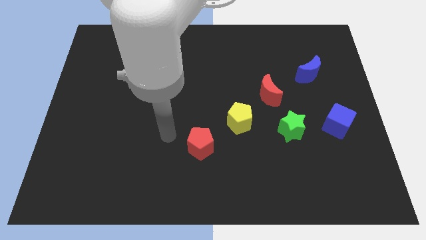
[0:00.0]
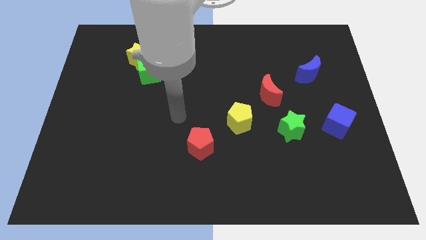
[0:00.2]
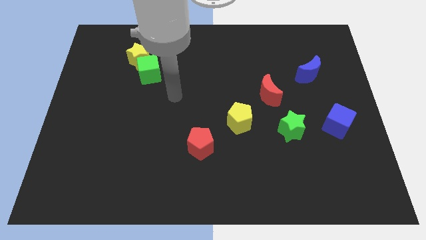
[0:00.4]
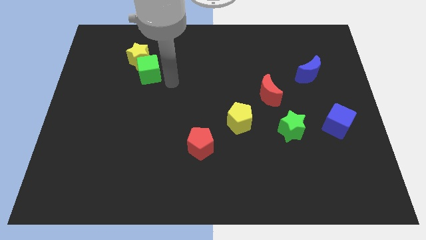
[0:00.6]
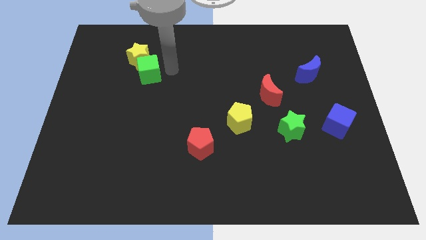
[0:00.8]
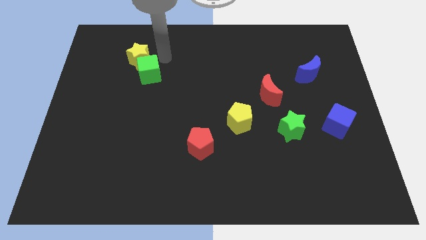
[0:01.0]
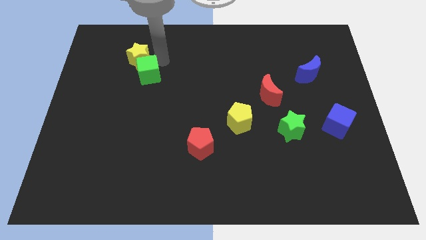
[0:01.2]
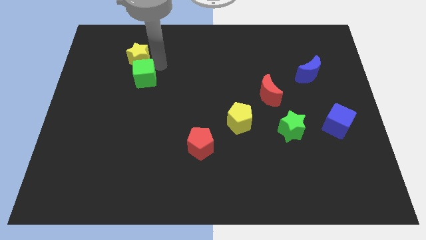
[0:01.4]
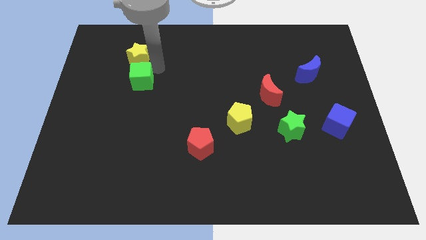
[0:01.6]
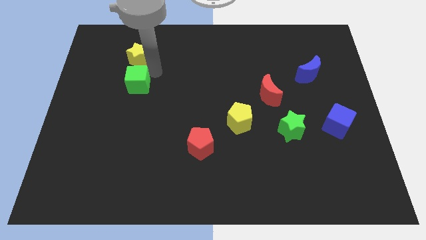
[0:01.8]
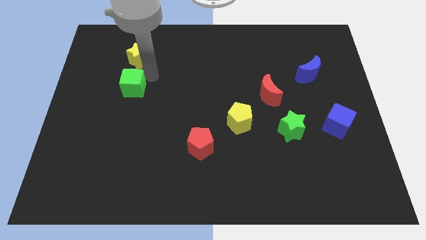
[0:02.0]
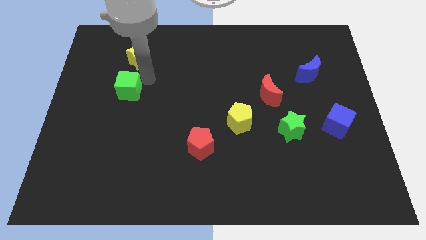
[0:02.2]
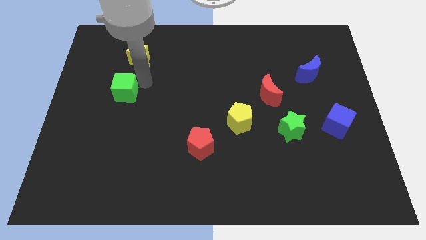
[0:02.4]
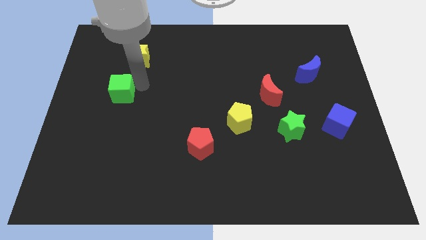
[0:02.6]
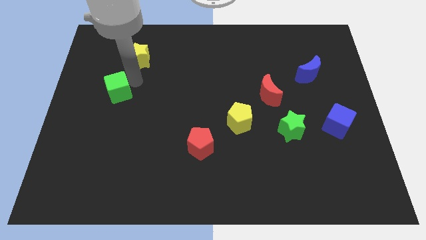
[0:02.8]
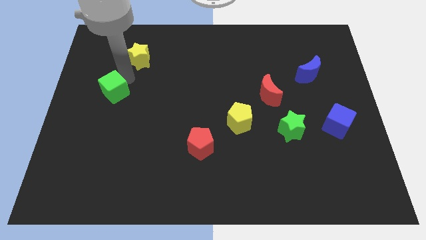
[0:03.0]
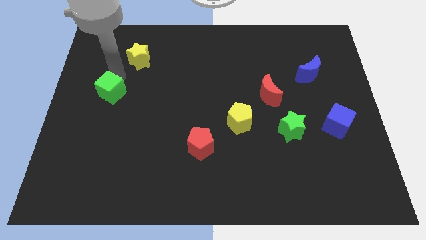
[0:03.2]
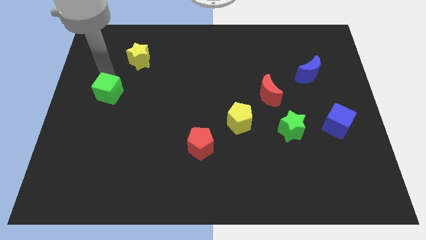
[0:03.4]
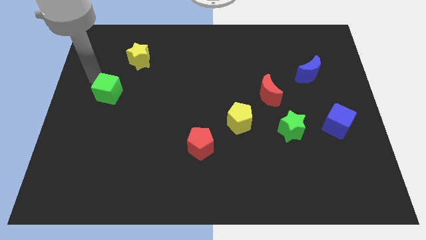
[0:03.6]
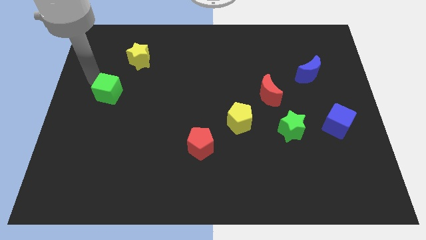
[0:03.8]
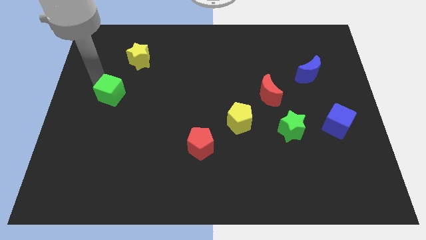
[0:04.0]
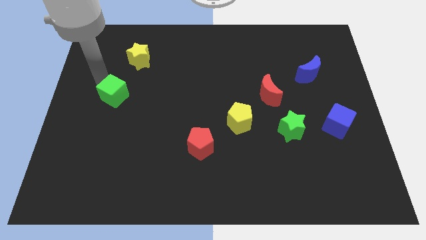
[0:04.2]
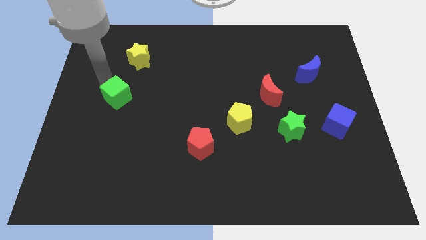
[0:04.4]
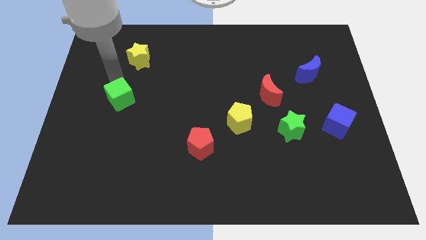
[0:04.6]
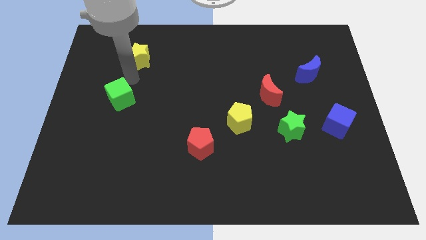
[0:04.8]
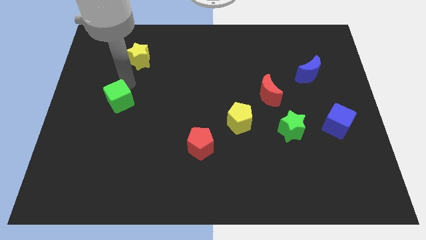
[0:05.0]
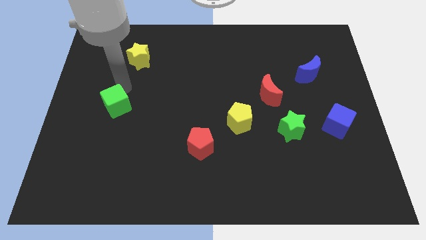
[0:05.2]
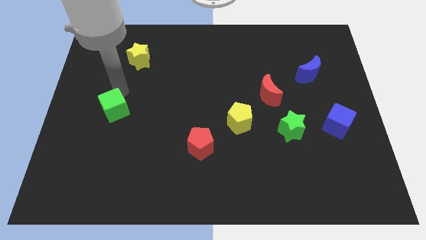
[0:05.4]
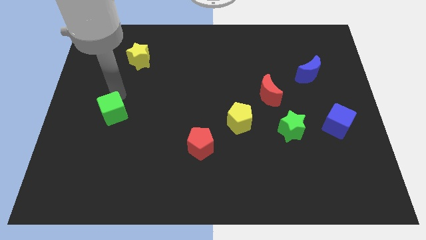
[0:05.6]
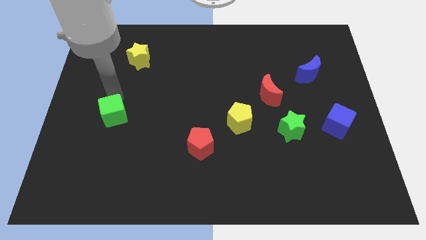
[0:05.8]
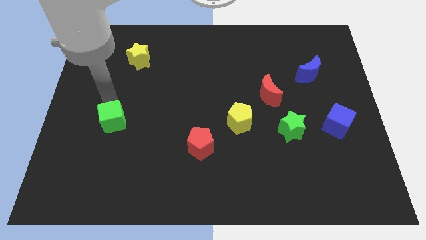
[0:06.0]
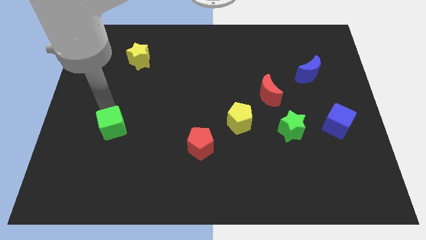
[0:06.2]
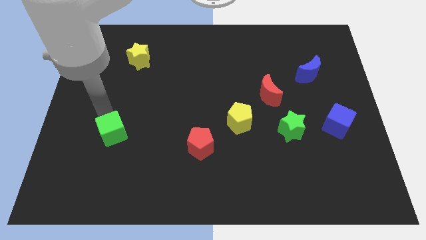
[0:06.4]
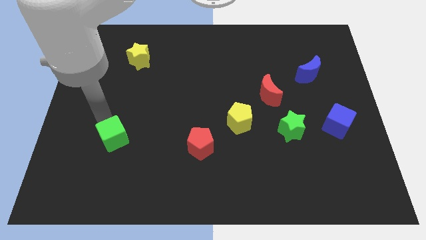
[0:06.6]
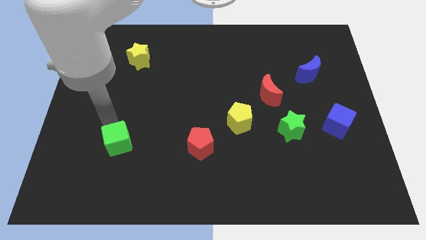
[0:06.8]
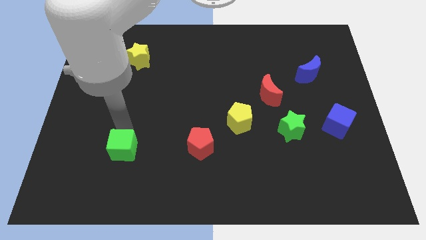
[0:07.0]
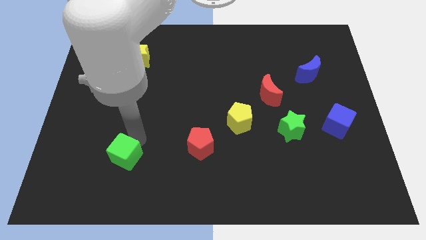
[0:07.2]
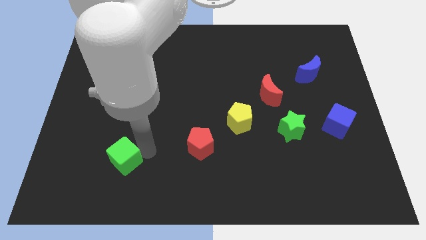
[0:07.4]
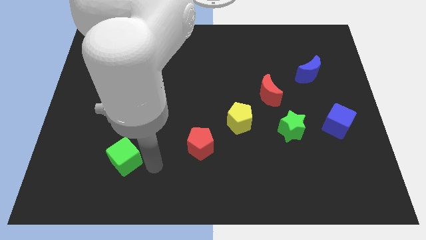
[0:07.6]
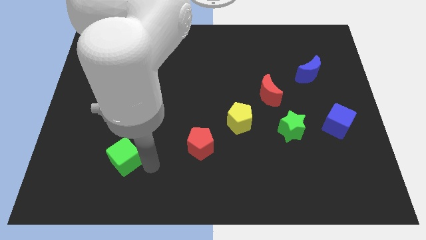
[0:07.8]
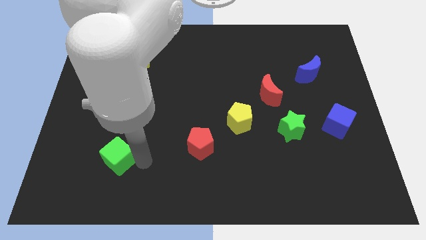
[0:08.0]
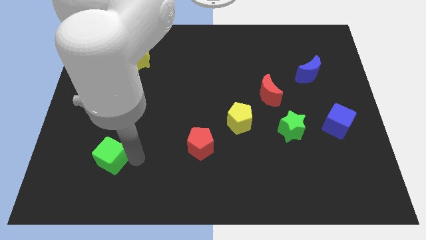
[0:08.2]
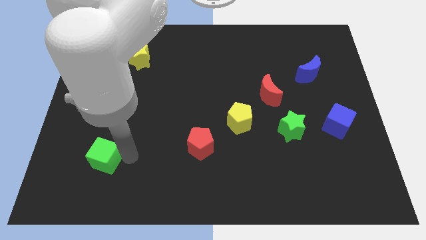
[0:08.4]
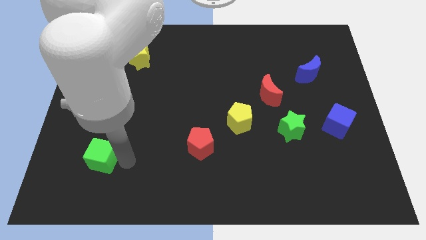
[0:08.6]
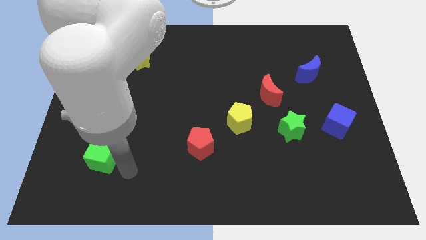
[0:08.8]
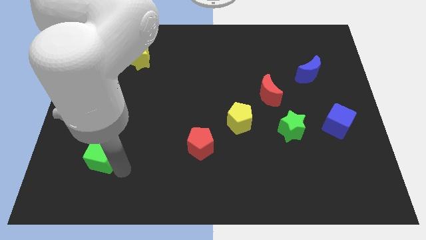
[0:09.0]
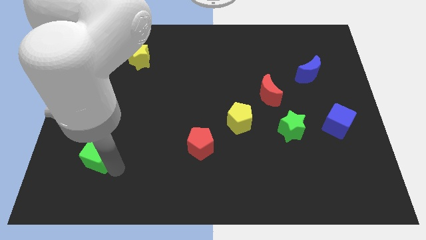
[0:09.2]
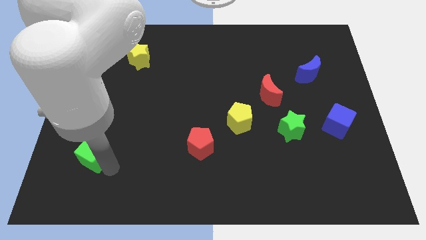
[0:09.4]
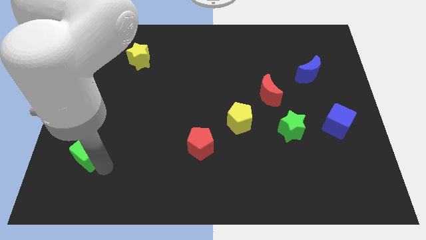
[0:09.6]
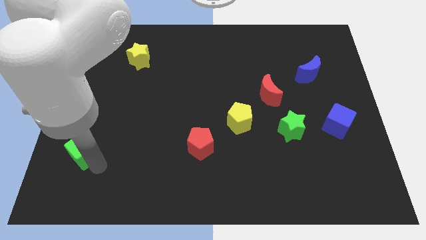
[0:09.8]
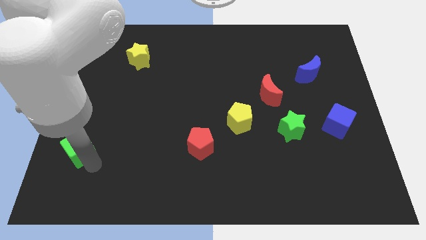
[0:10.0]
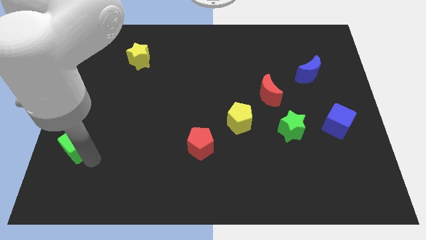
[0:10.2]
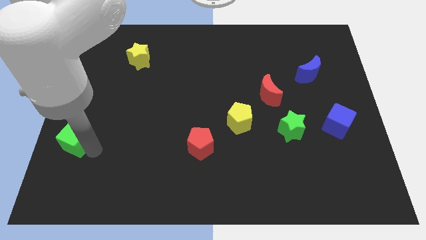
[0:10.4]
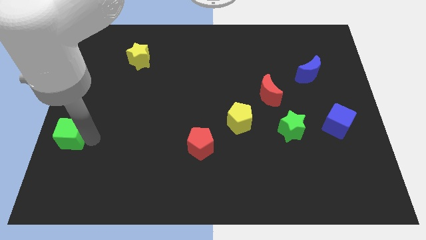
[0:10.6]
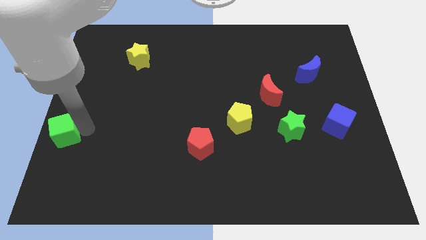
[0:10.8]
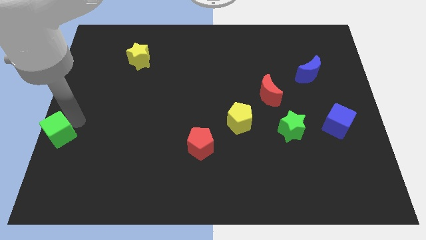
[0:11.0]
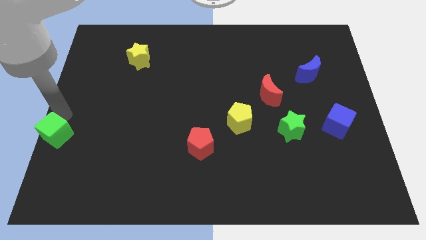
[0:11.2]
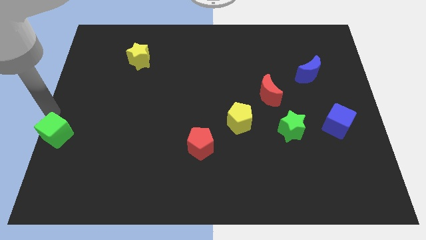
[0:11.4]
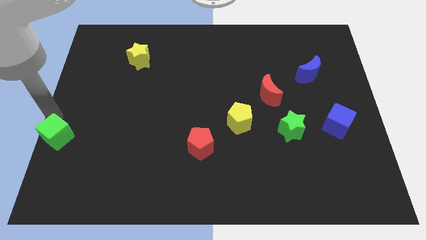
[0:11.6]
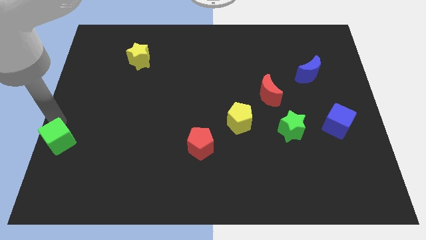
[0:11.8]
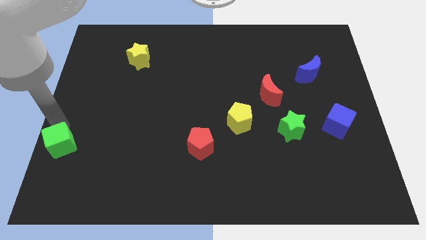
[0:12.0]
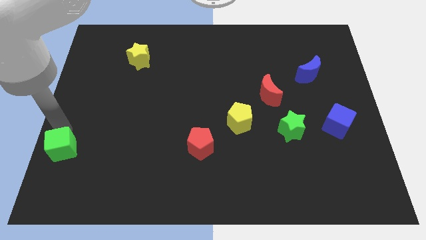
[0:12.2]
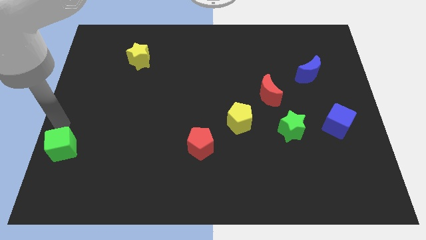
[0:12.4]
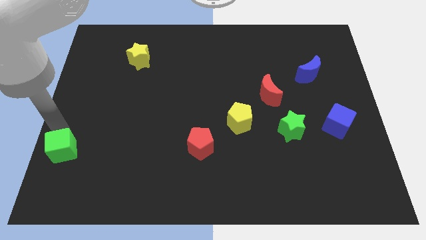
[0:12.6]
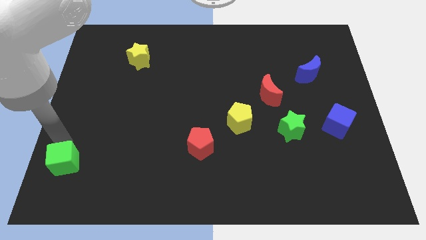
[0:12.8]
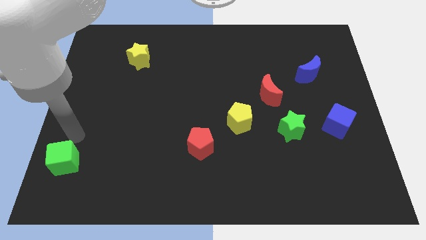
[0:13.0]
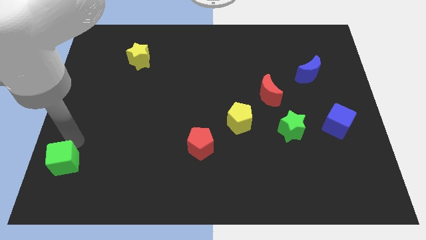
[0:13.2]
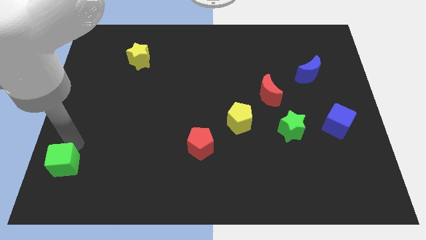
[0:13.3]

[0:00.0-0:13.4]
push the green cube to the lower left corner
